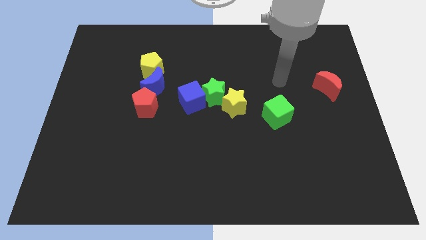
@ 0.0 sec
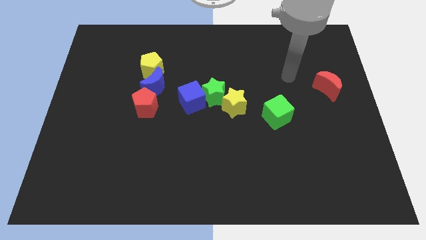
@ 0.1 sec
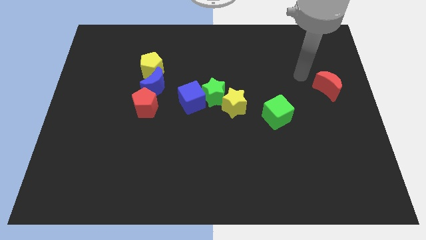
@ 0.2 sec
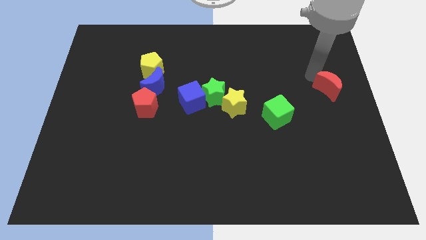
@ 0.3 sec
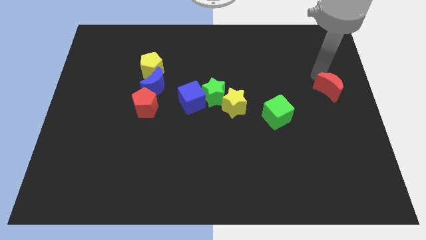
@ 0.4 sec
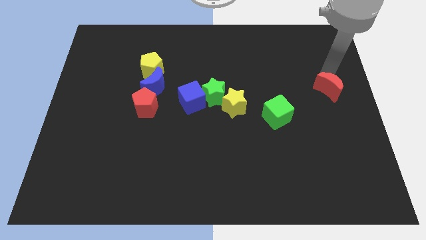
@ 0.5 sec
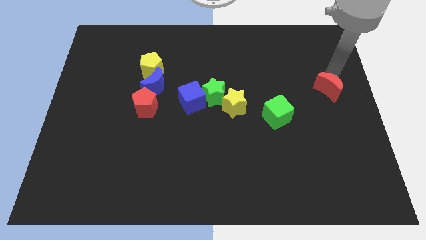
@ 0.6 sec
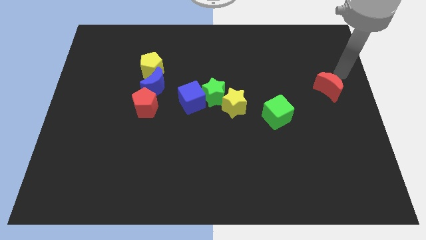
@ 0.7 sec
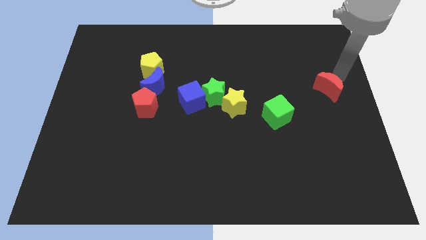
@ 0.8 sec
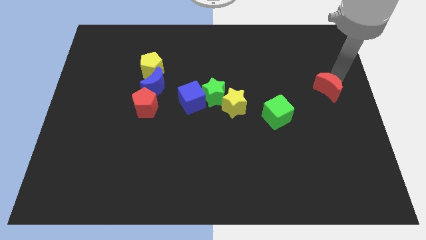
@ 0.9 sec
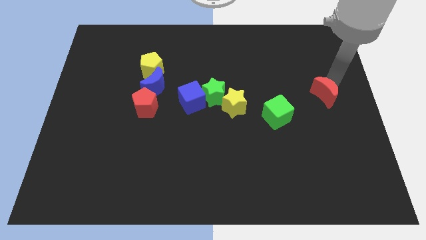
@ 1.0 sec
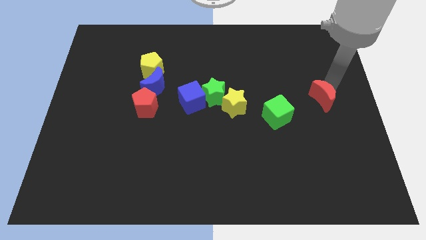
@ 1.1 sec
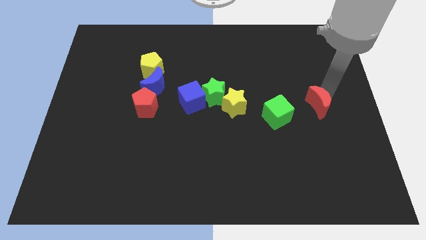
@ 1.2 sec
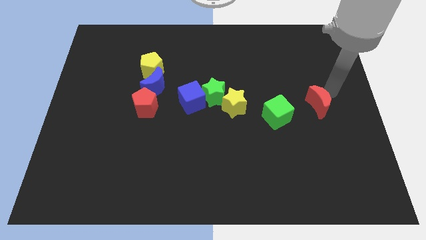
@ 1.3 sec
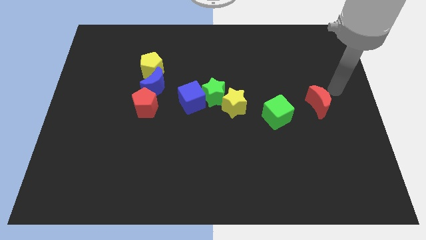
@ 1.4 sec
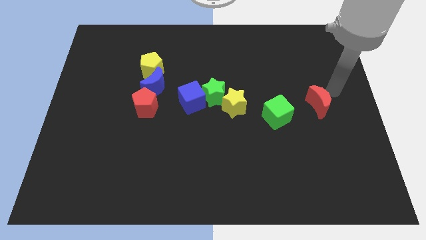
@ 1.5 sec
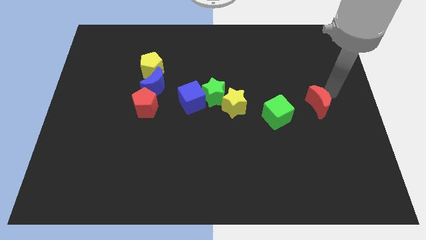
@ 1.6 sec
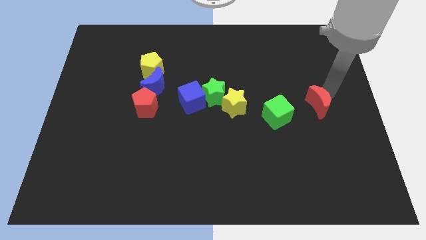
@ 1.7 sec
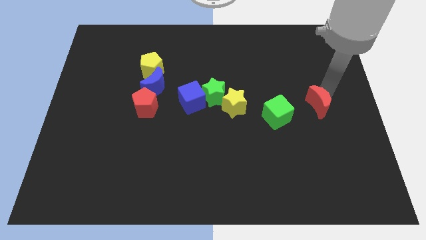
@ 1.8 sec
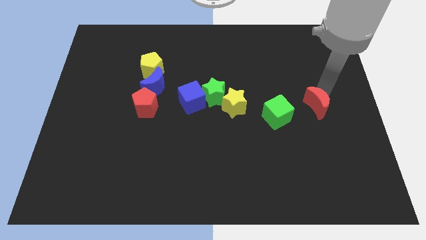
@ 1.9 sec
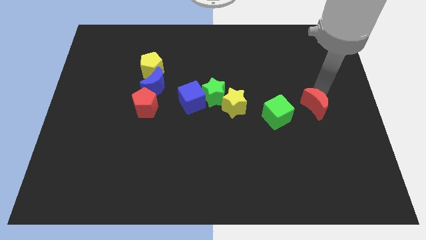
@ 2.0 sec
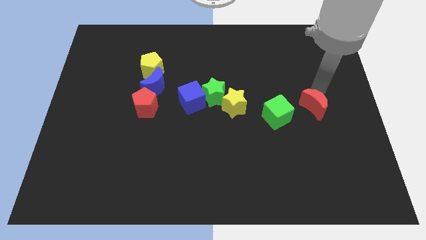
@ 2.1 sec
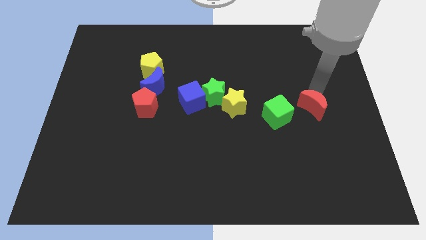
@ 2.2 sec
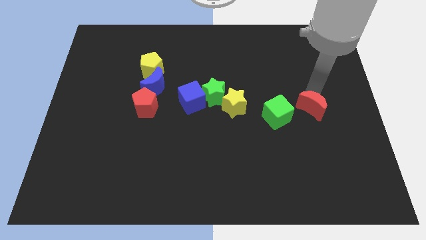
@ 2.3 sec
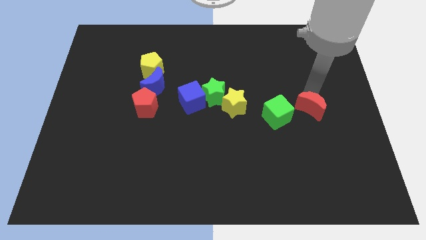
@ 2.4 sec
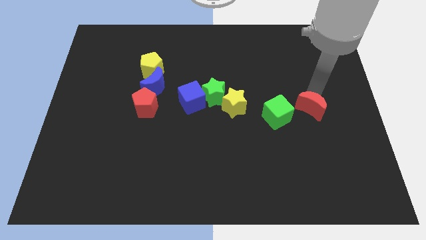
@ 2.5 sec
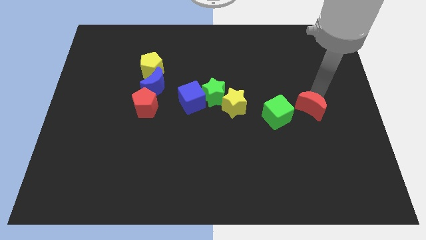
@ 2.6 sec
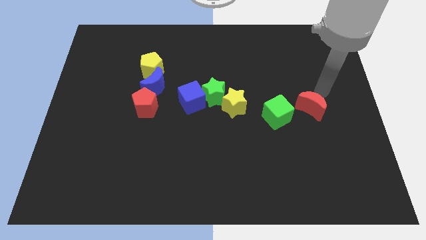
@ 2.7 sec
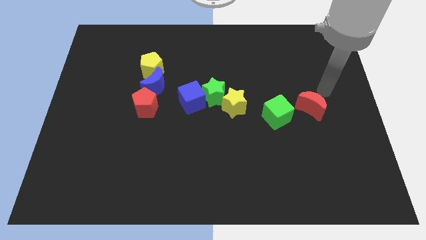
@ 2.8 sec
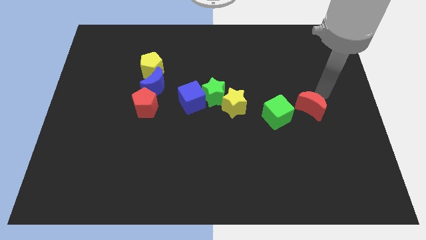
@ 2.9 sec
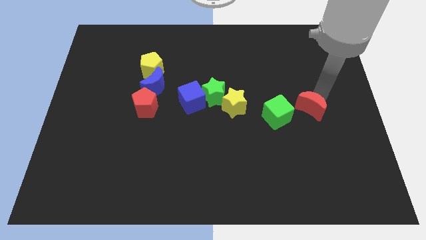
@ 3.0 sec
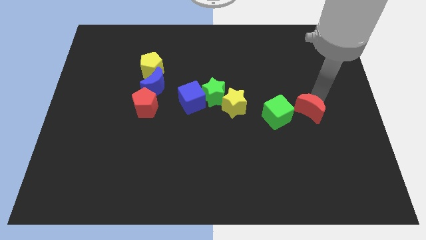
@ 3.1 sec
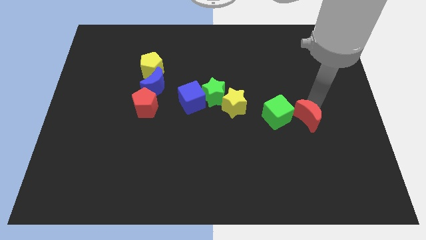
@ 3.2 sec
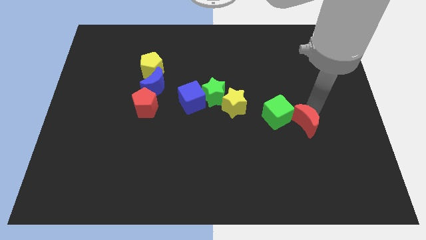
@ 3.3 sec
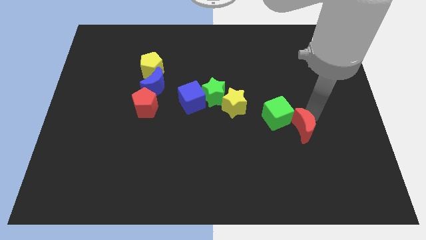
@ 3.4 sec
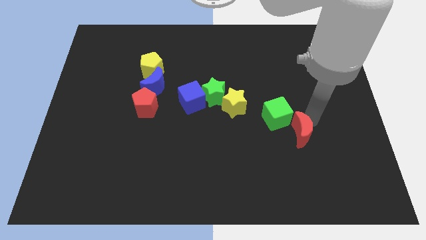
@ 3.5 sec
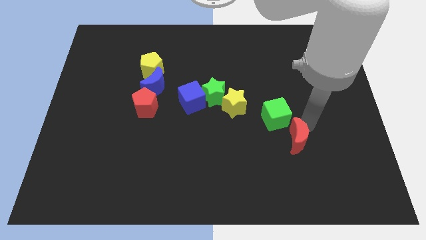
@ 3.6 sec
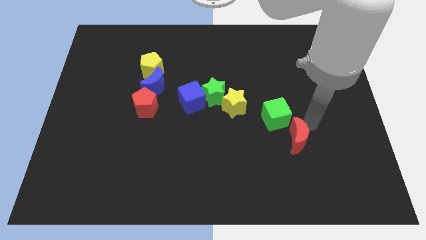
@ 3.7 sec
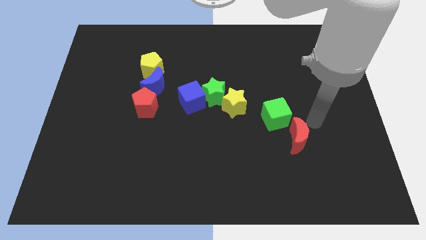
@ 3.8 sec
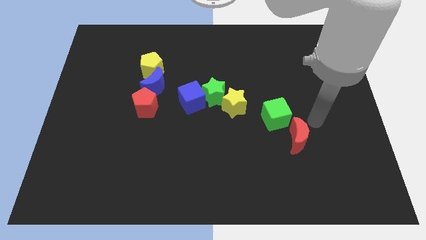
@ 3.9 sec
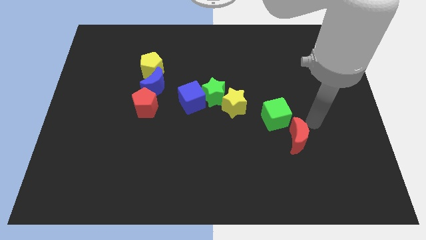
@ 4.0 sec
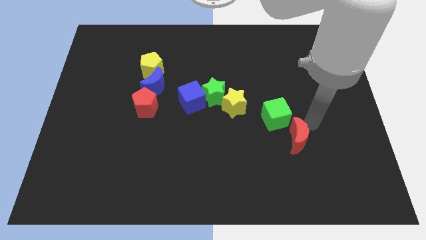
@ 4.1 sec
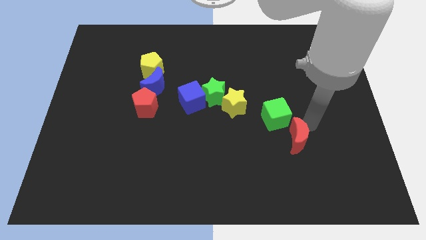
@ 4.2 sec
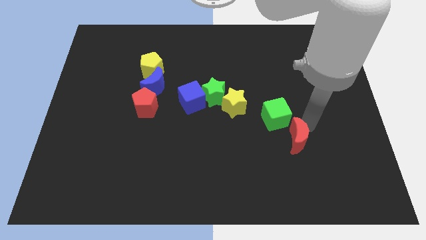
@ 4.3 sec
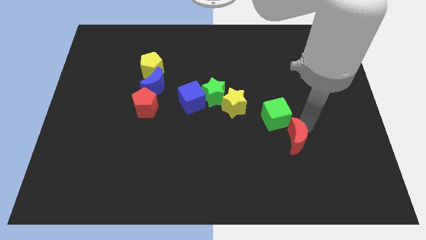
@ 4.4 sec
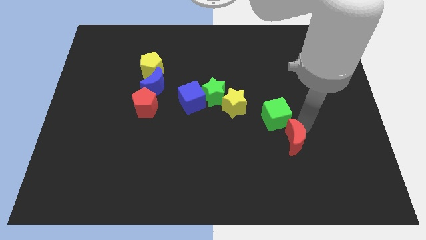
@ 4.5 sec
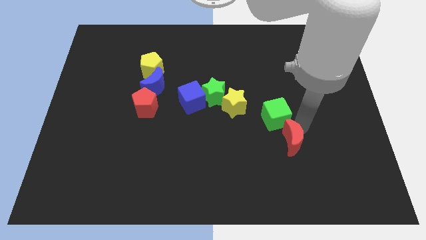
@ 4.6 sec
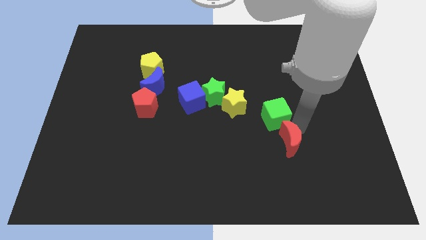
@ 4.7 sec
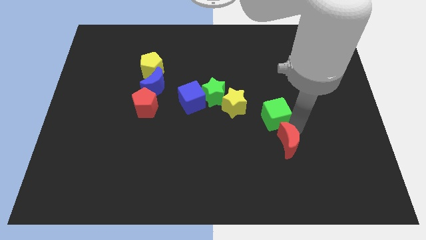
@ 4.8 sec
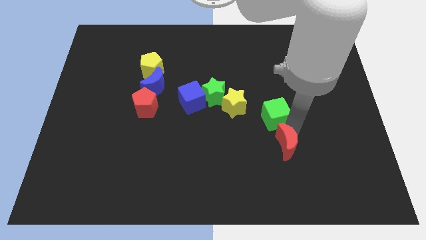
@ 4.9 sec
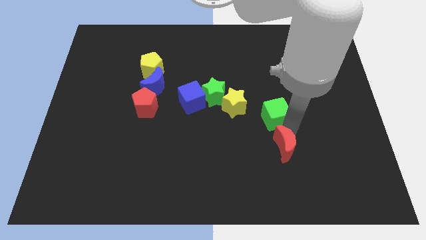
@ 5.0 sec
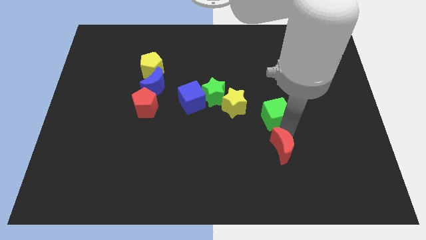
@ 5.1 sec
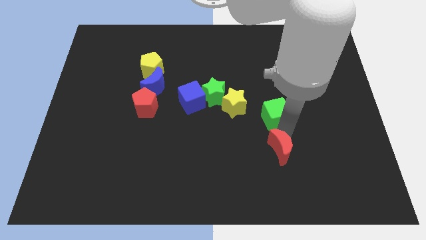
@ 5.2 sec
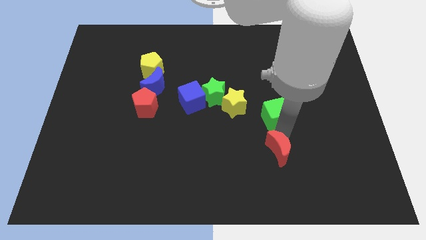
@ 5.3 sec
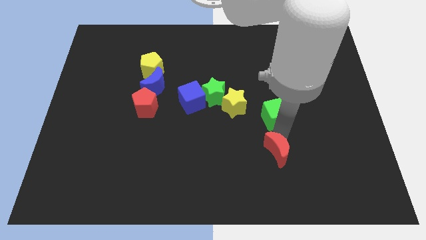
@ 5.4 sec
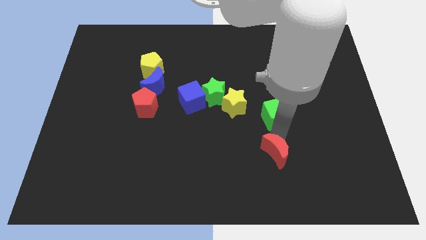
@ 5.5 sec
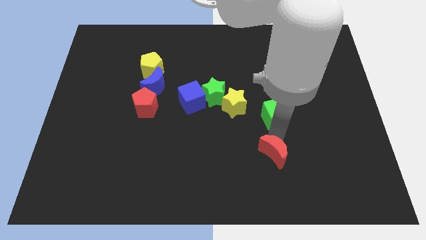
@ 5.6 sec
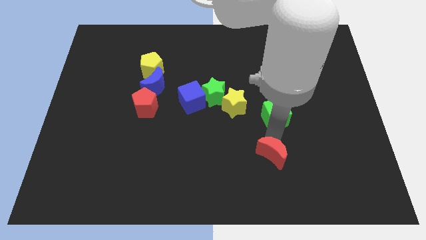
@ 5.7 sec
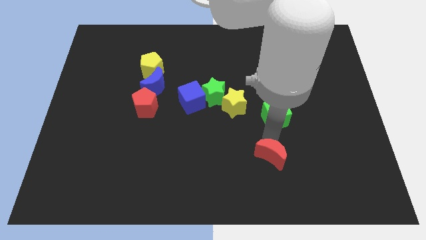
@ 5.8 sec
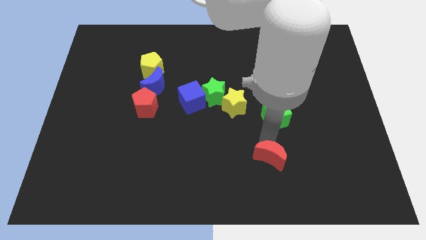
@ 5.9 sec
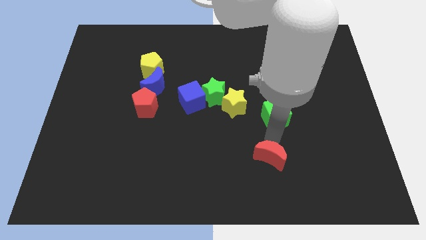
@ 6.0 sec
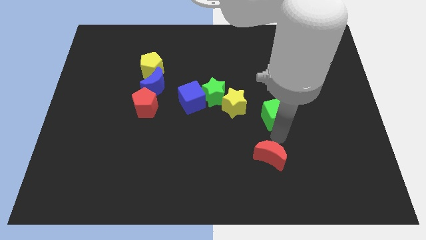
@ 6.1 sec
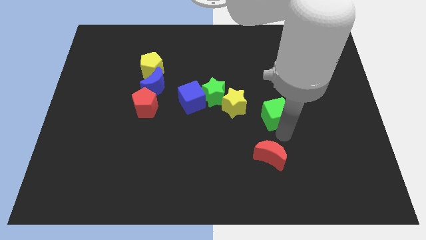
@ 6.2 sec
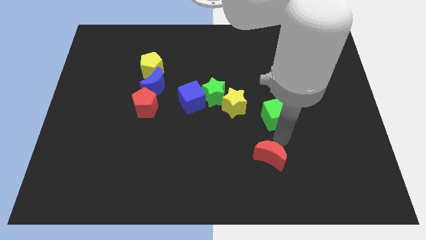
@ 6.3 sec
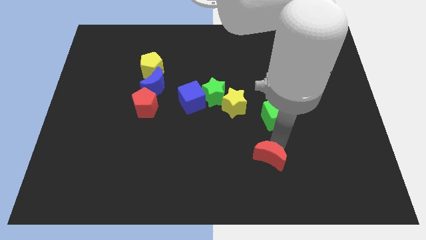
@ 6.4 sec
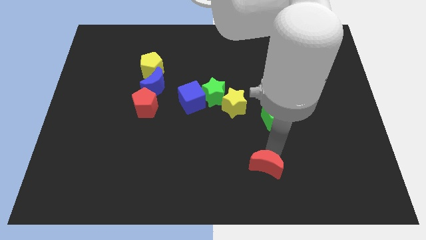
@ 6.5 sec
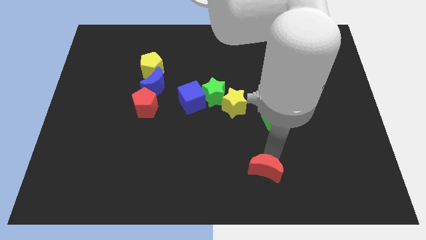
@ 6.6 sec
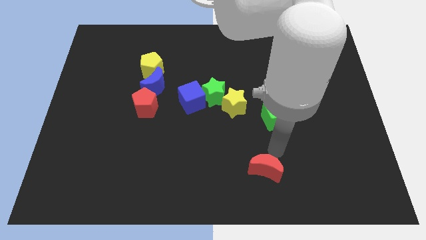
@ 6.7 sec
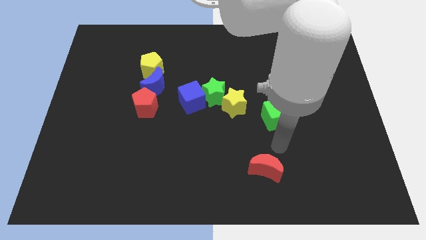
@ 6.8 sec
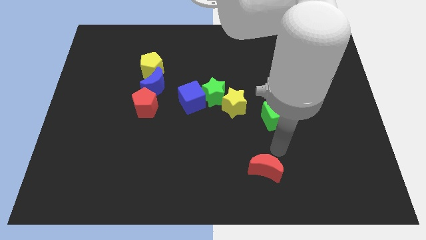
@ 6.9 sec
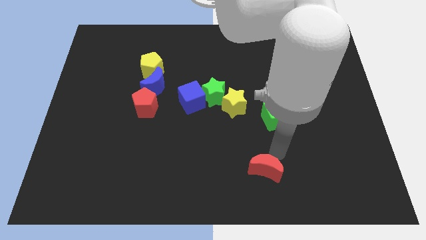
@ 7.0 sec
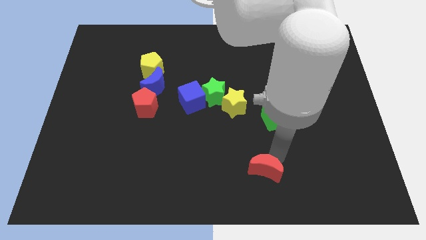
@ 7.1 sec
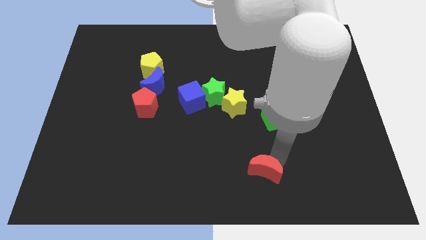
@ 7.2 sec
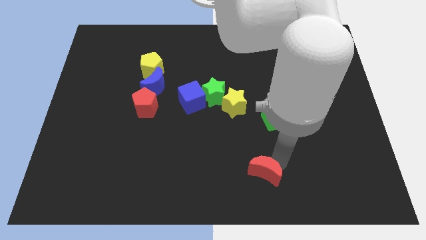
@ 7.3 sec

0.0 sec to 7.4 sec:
slide the red moon to the bottom side
